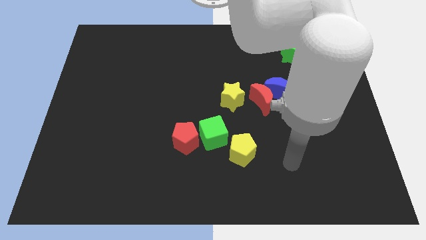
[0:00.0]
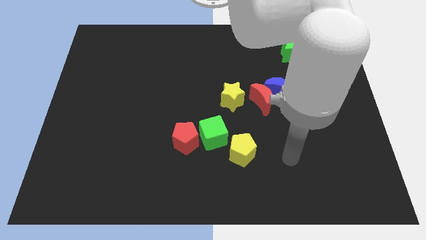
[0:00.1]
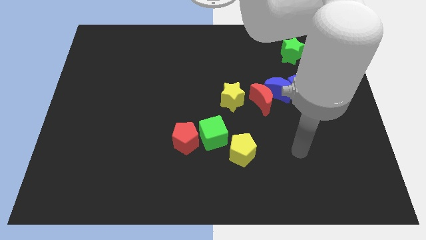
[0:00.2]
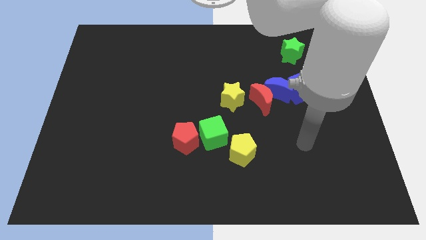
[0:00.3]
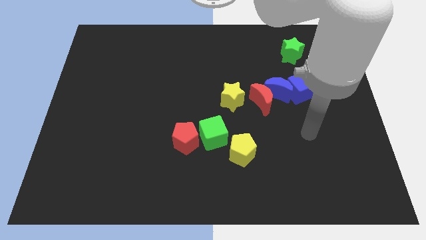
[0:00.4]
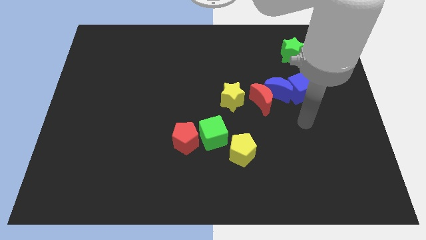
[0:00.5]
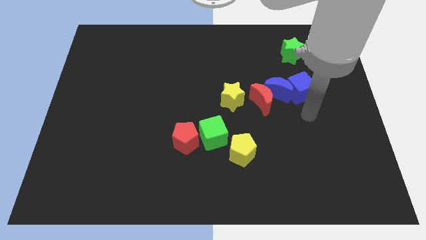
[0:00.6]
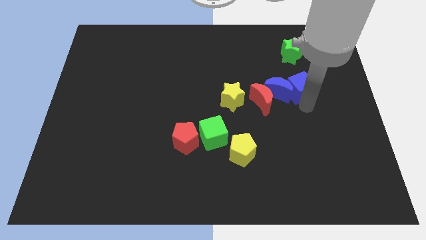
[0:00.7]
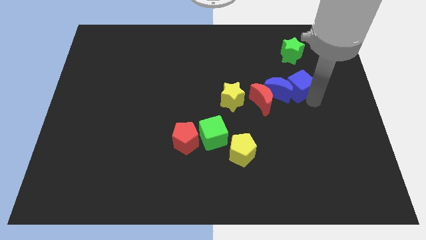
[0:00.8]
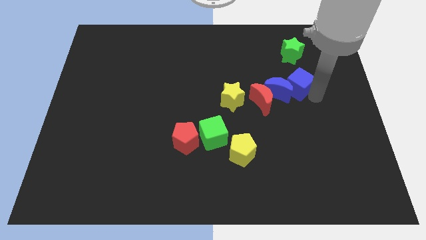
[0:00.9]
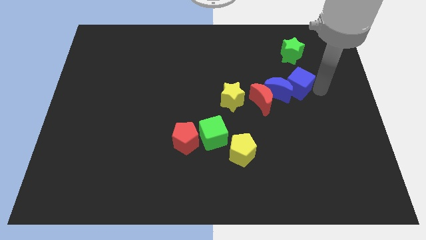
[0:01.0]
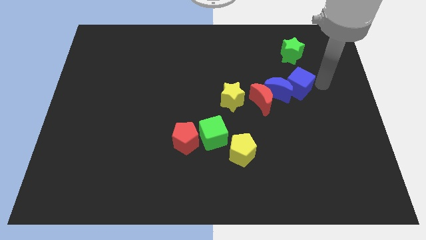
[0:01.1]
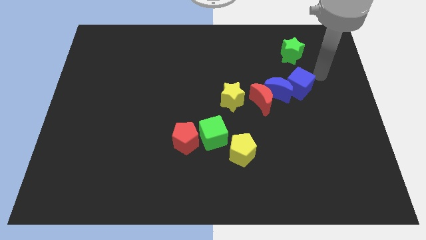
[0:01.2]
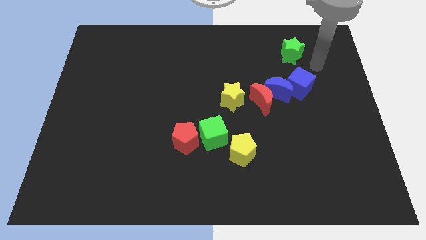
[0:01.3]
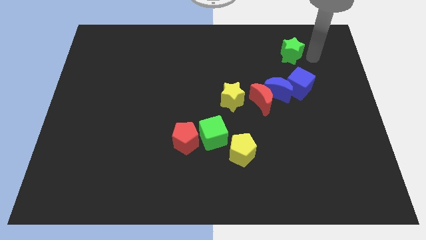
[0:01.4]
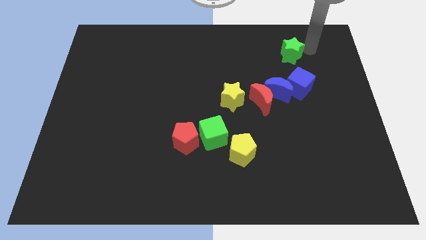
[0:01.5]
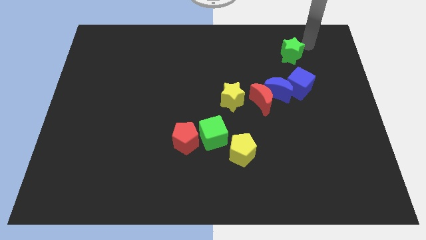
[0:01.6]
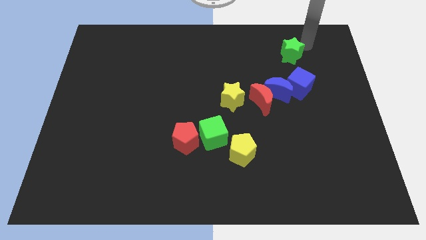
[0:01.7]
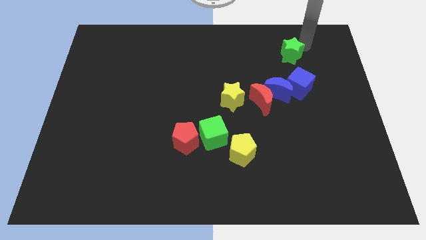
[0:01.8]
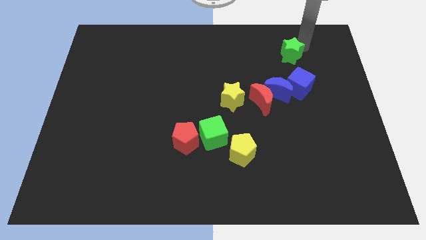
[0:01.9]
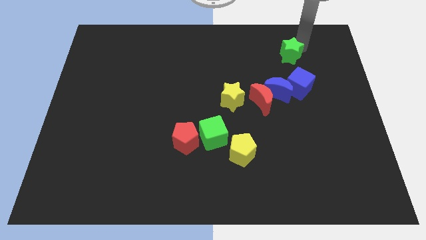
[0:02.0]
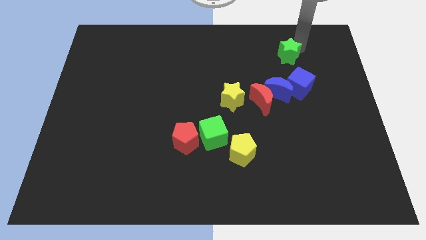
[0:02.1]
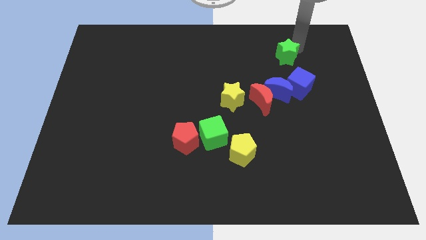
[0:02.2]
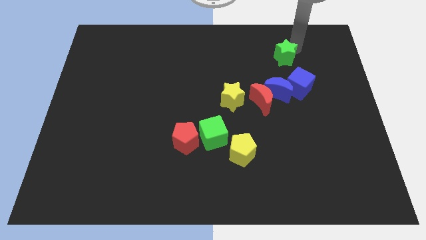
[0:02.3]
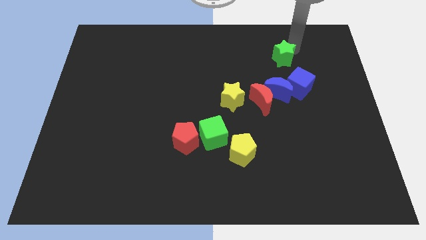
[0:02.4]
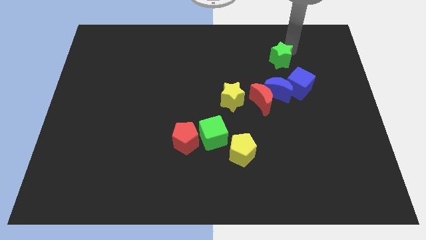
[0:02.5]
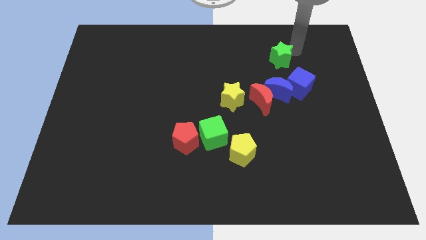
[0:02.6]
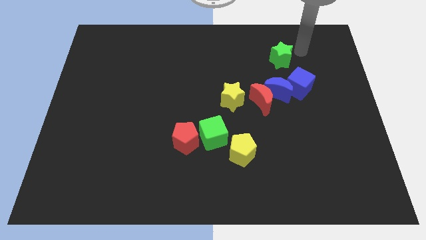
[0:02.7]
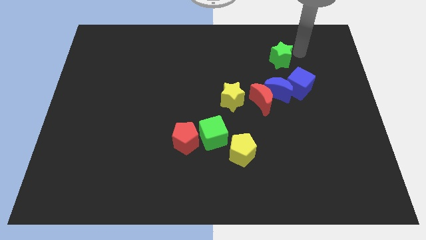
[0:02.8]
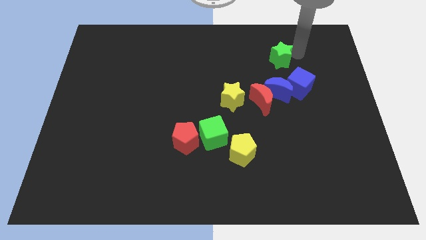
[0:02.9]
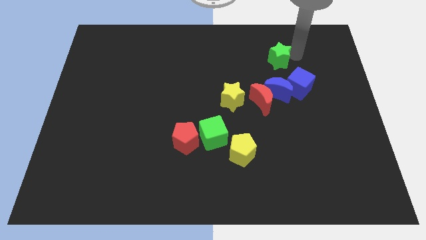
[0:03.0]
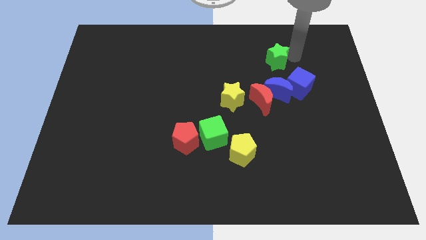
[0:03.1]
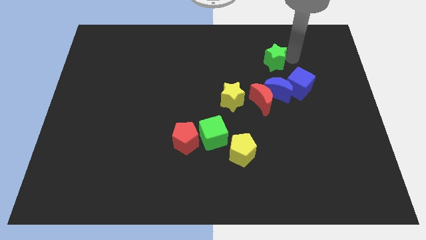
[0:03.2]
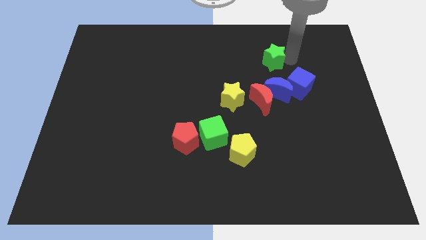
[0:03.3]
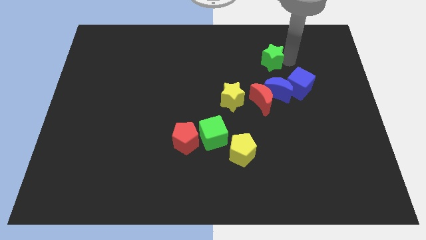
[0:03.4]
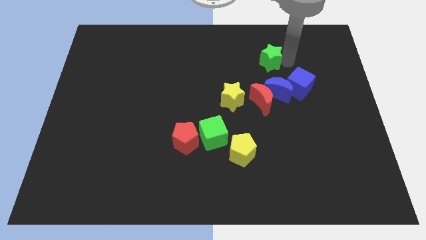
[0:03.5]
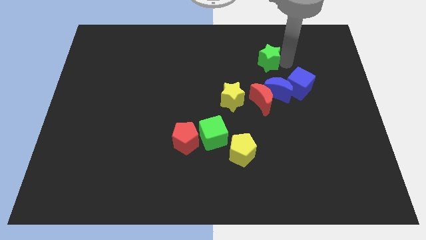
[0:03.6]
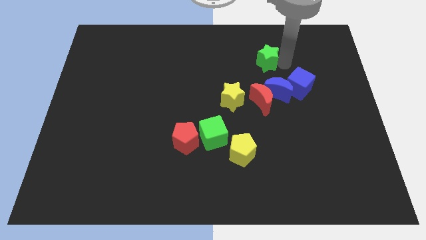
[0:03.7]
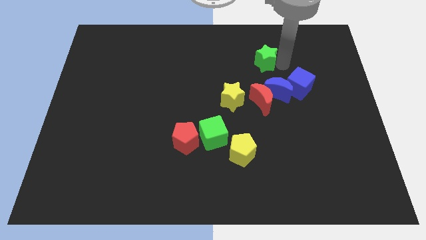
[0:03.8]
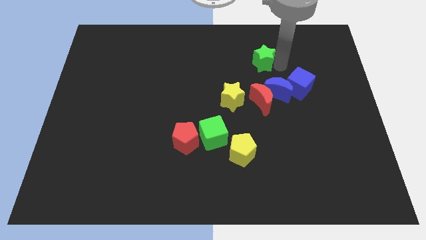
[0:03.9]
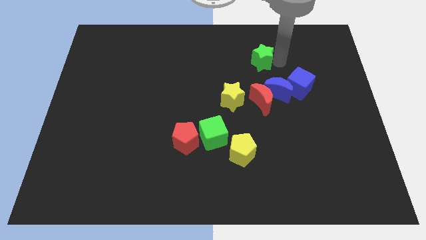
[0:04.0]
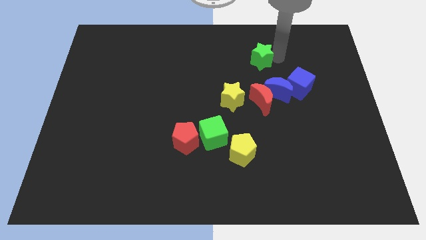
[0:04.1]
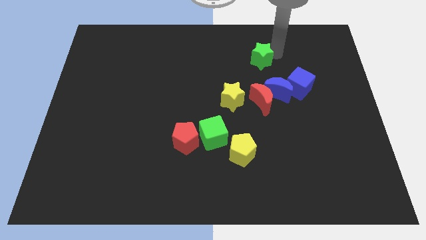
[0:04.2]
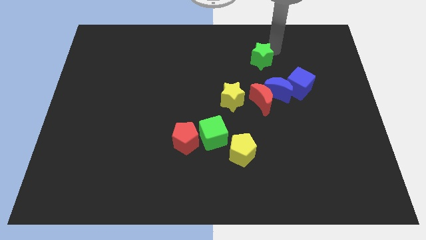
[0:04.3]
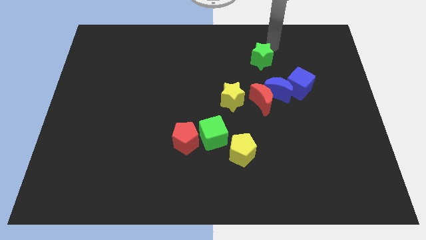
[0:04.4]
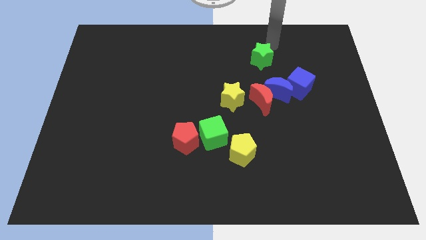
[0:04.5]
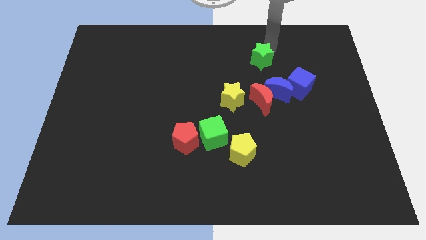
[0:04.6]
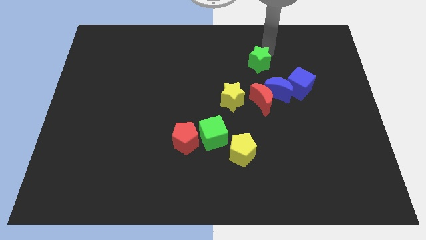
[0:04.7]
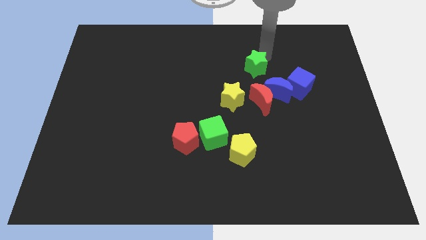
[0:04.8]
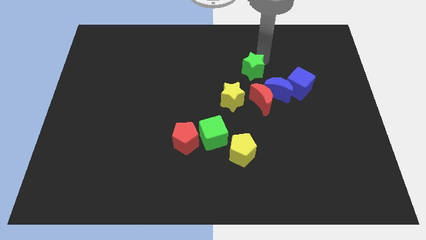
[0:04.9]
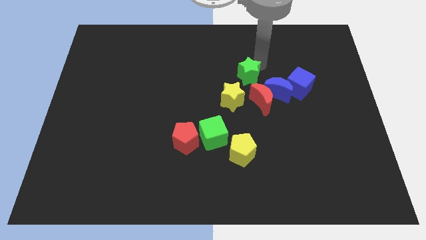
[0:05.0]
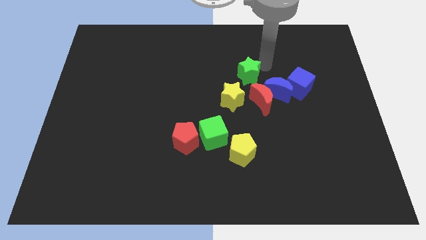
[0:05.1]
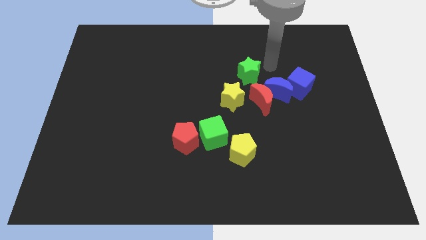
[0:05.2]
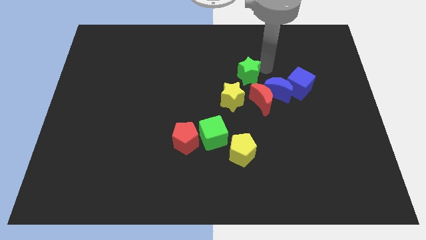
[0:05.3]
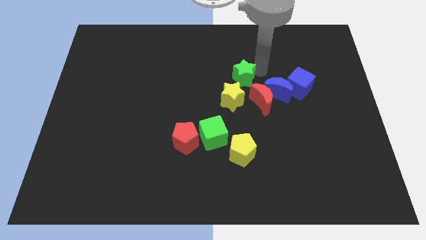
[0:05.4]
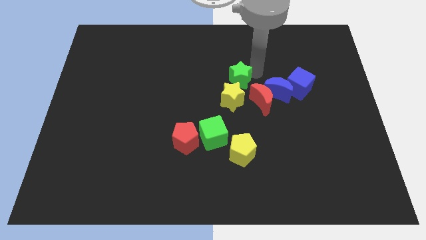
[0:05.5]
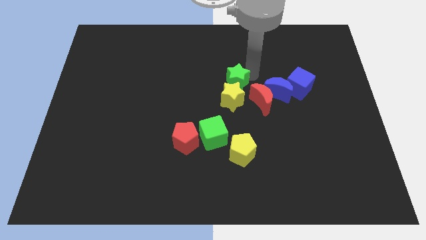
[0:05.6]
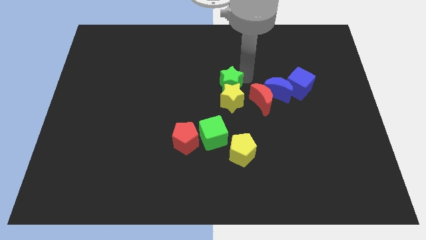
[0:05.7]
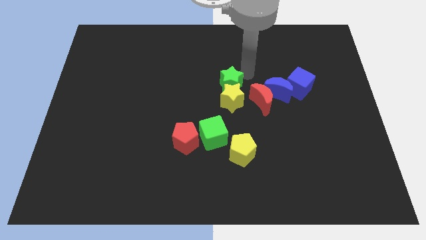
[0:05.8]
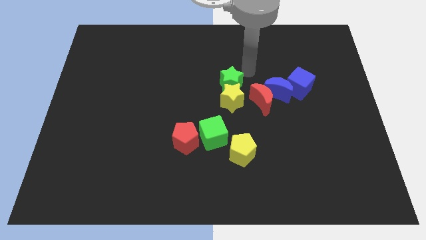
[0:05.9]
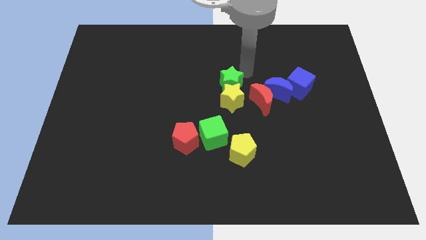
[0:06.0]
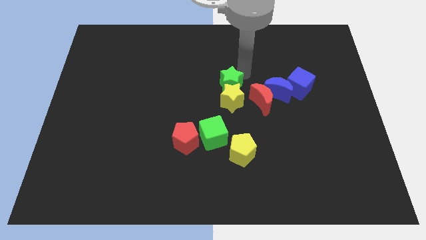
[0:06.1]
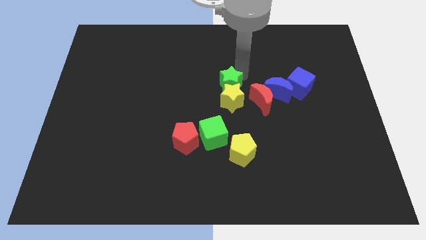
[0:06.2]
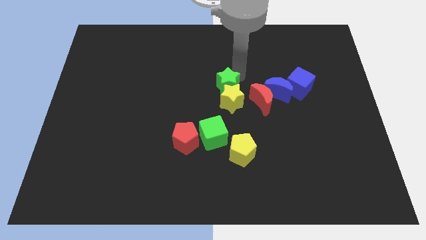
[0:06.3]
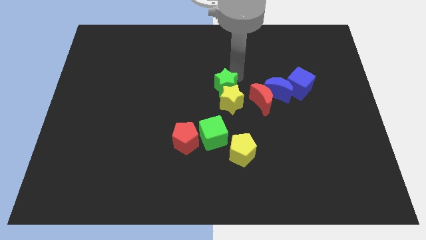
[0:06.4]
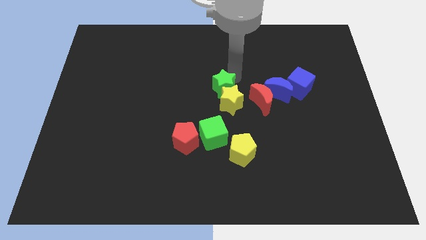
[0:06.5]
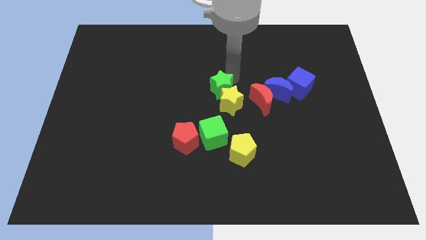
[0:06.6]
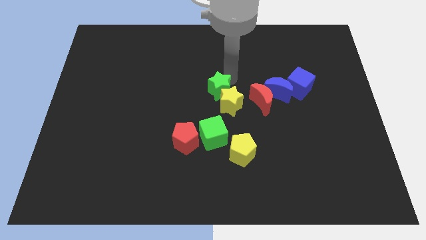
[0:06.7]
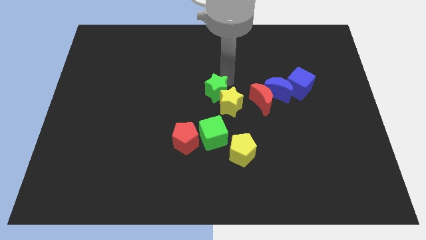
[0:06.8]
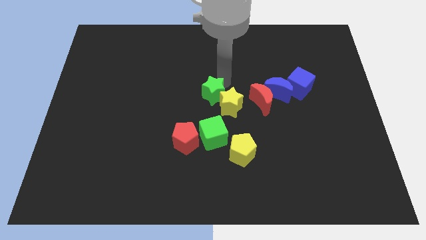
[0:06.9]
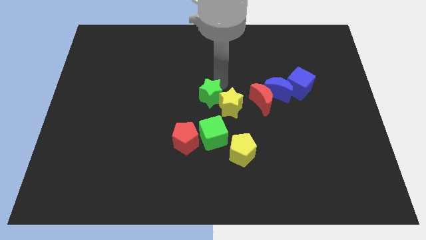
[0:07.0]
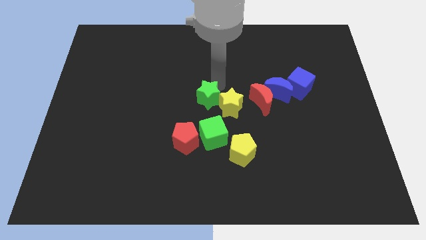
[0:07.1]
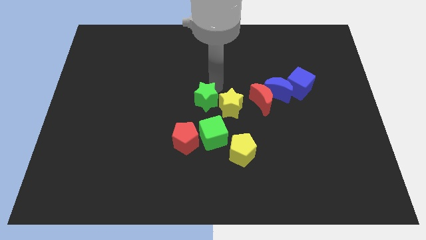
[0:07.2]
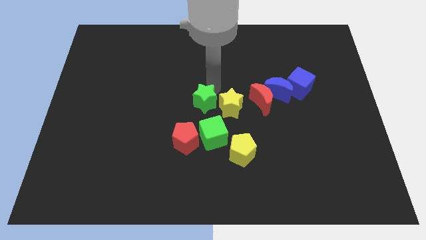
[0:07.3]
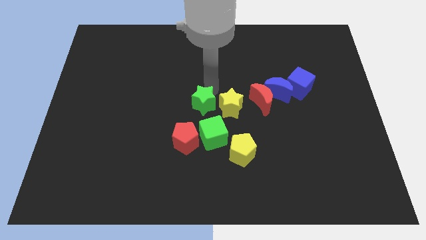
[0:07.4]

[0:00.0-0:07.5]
move the green star to the top right of the red pentagon
